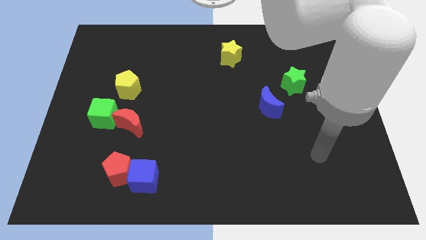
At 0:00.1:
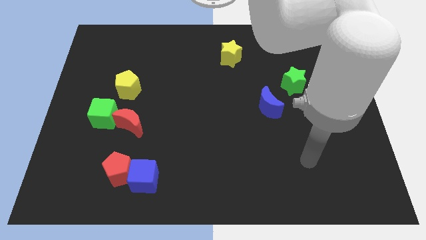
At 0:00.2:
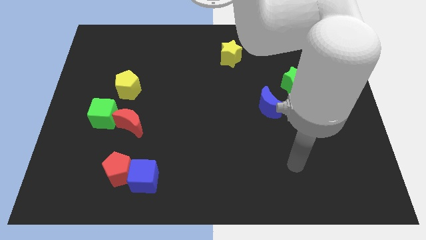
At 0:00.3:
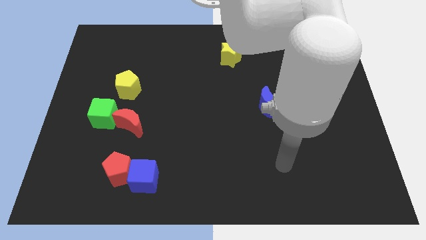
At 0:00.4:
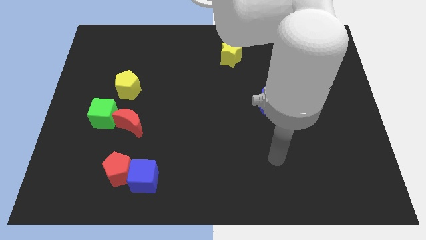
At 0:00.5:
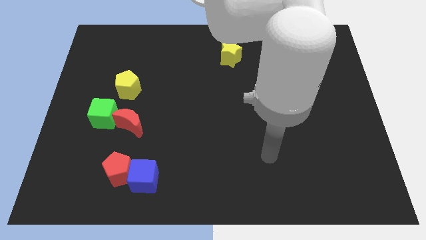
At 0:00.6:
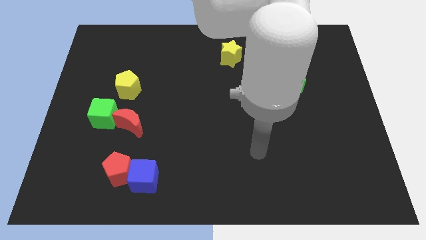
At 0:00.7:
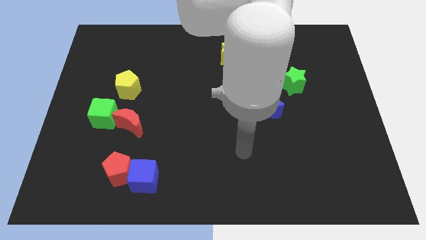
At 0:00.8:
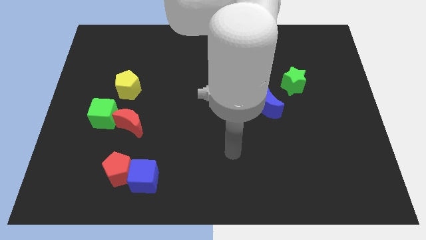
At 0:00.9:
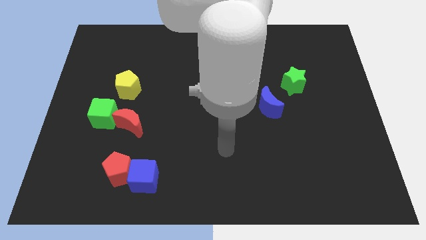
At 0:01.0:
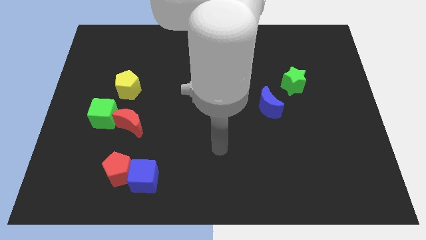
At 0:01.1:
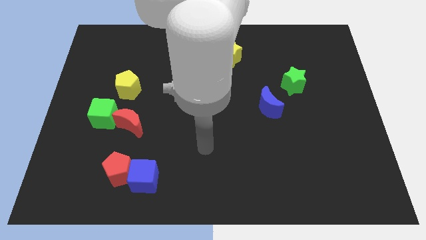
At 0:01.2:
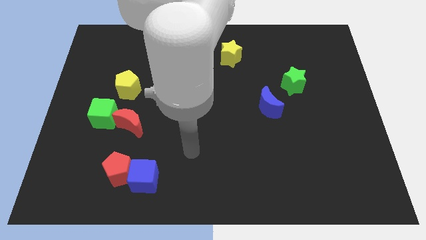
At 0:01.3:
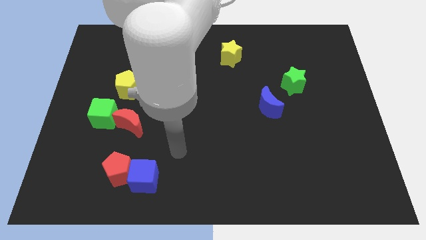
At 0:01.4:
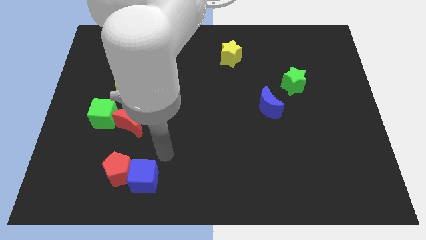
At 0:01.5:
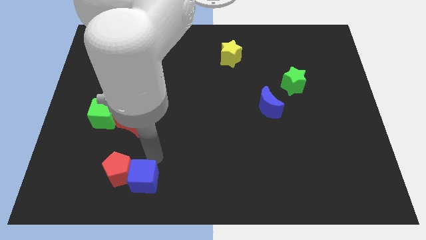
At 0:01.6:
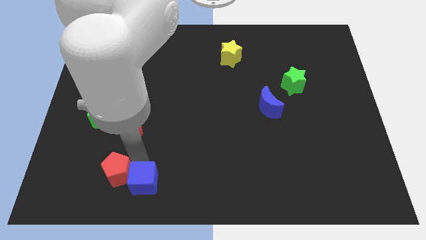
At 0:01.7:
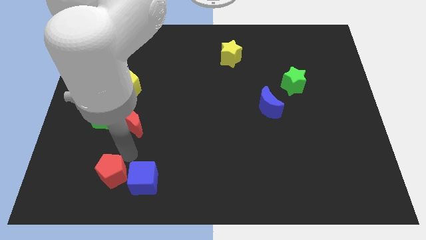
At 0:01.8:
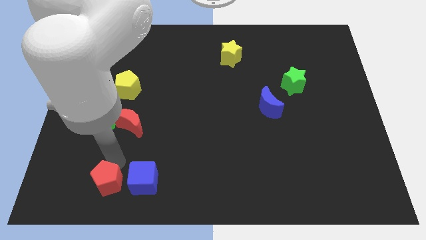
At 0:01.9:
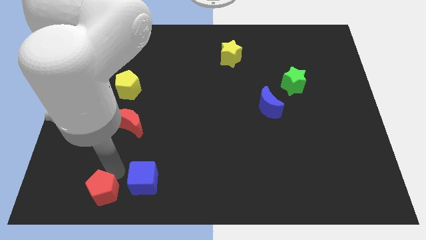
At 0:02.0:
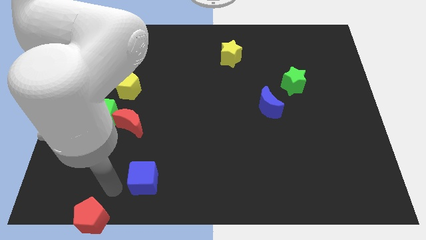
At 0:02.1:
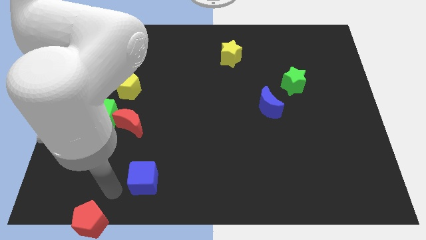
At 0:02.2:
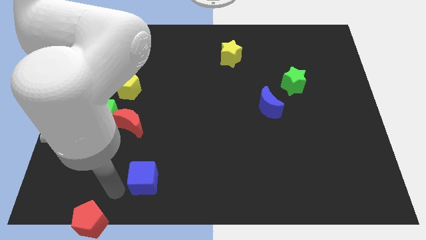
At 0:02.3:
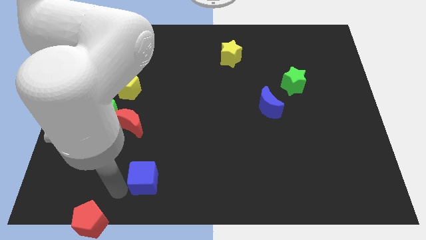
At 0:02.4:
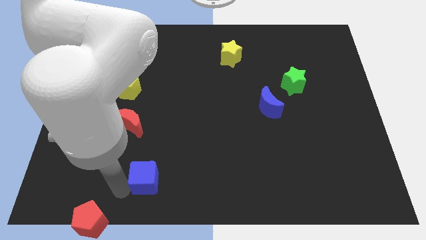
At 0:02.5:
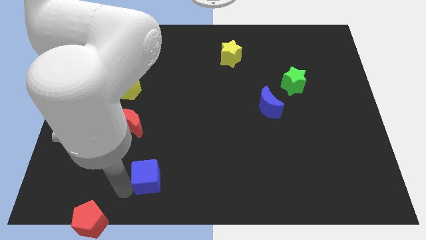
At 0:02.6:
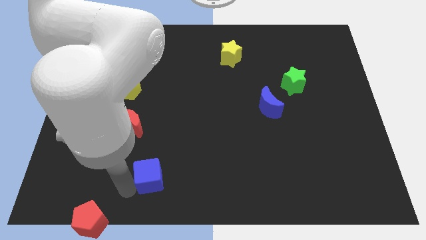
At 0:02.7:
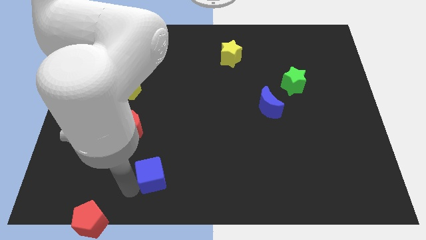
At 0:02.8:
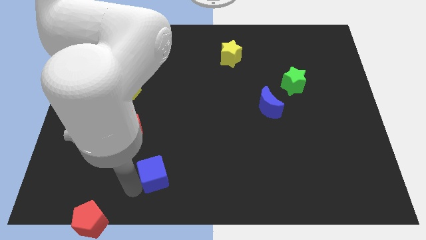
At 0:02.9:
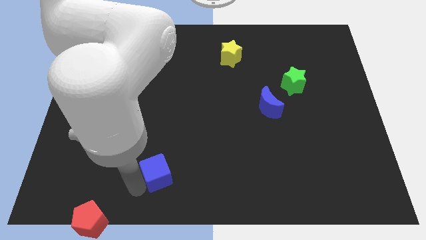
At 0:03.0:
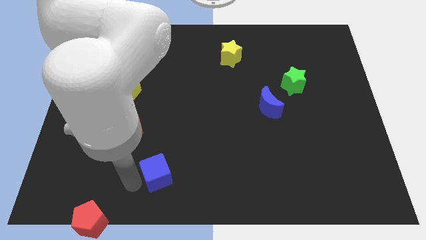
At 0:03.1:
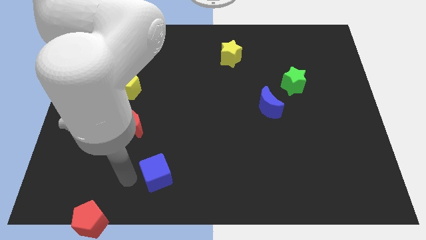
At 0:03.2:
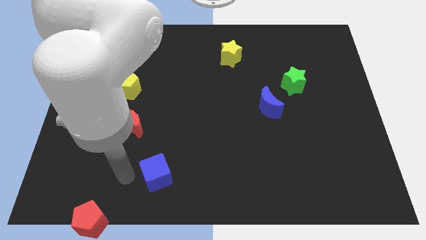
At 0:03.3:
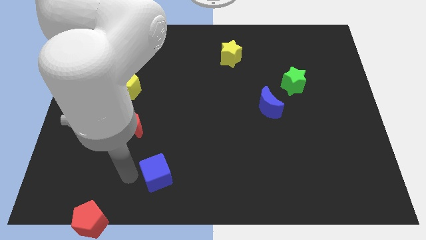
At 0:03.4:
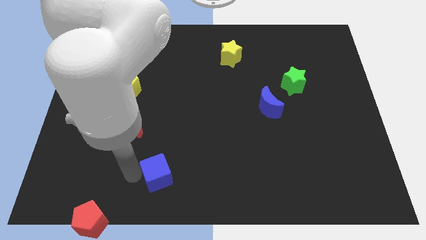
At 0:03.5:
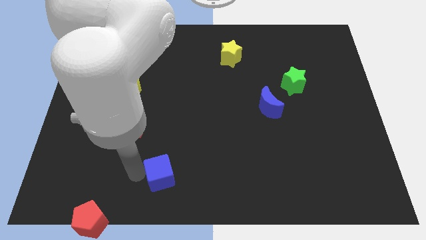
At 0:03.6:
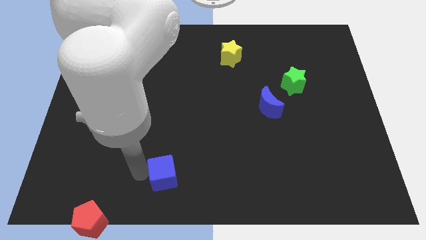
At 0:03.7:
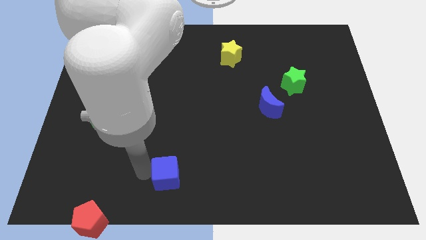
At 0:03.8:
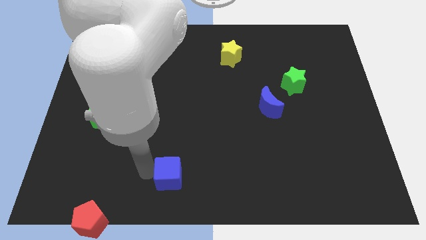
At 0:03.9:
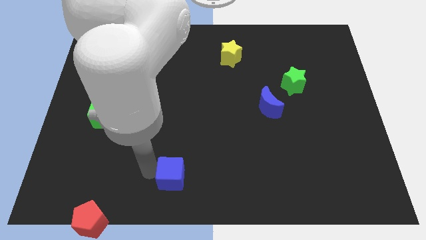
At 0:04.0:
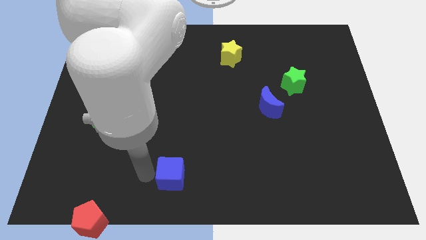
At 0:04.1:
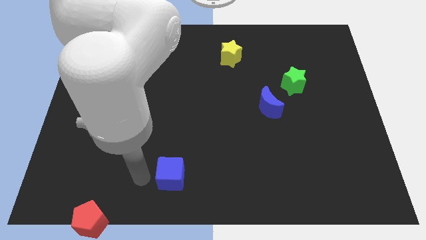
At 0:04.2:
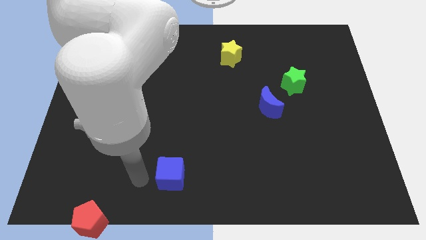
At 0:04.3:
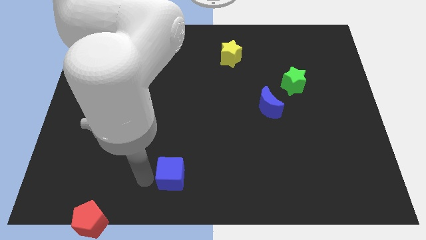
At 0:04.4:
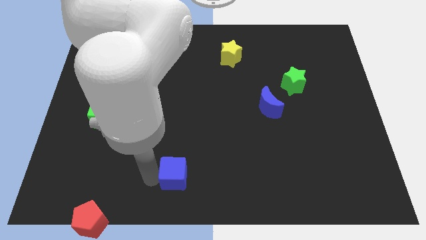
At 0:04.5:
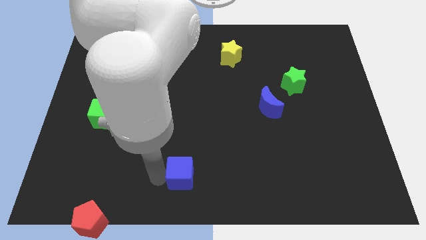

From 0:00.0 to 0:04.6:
slide the blue cube somewhat to the right

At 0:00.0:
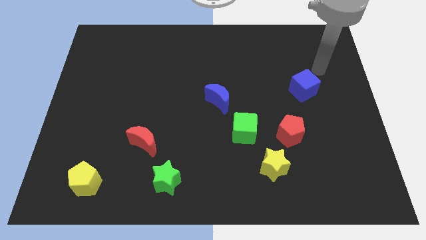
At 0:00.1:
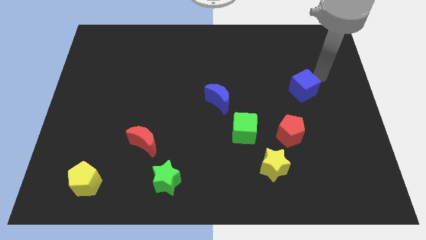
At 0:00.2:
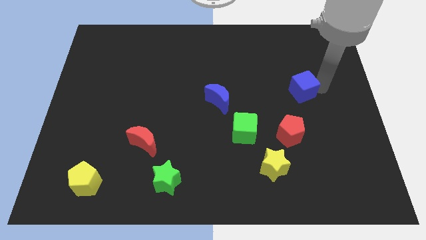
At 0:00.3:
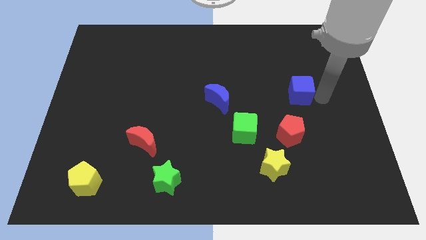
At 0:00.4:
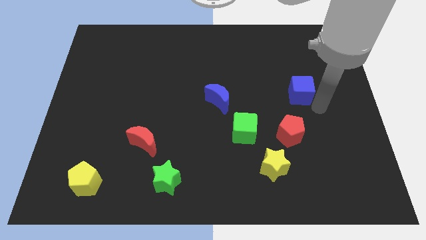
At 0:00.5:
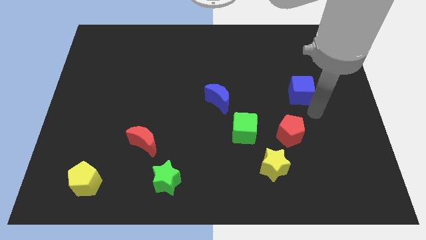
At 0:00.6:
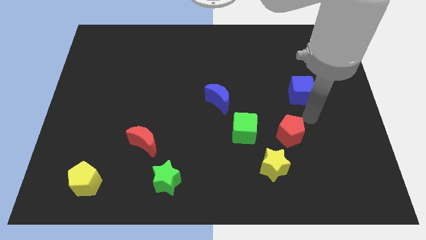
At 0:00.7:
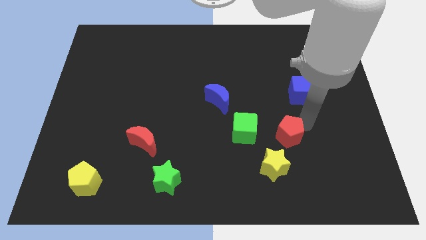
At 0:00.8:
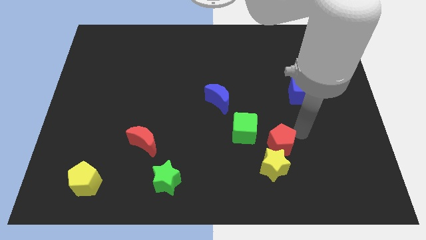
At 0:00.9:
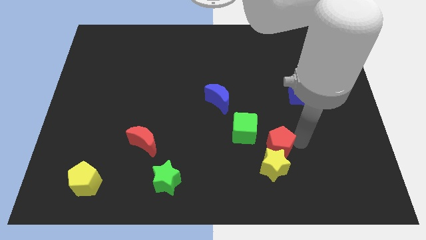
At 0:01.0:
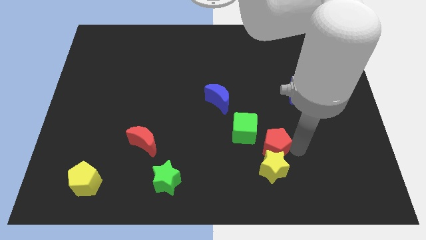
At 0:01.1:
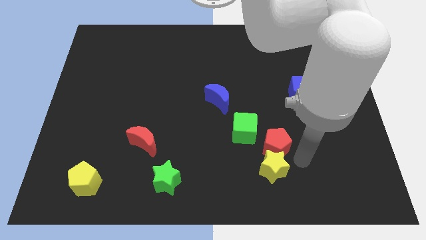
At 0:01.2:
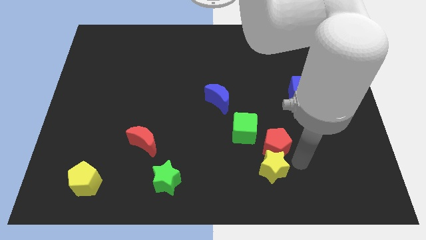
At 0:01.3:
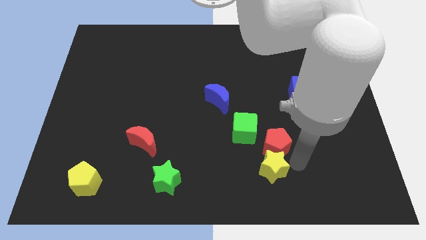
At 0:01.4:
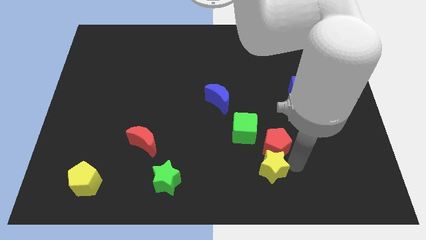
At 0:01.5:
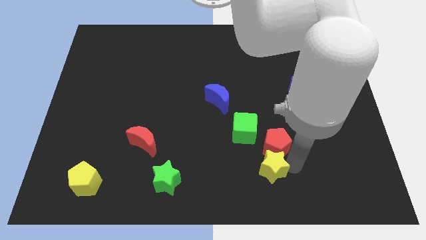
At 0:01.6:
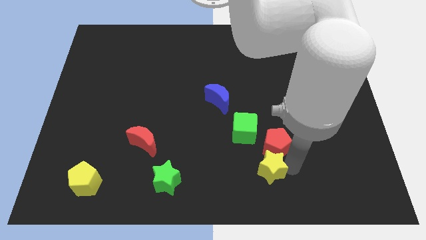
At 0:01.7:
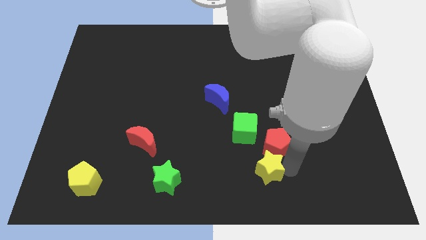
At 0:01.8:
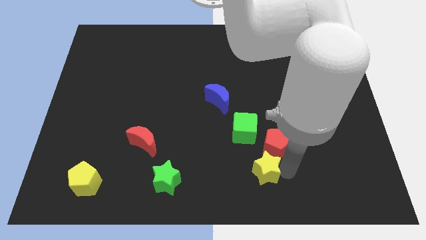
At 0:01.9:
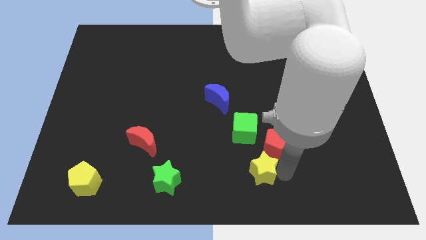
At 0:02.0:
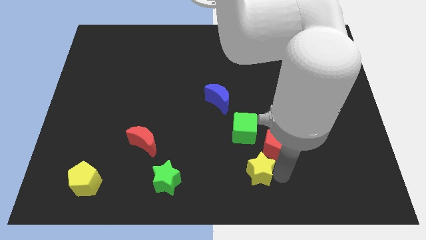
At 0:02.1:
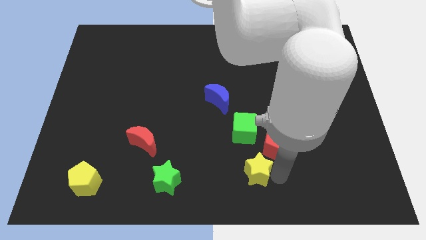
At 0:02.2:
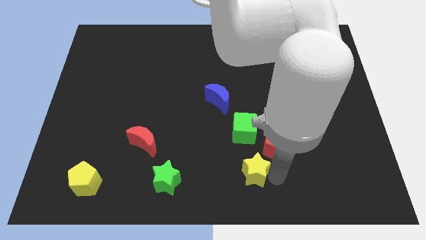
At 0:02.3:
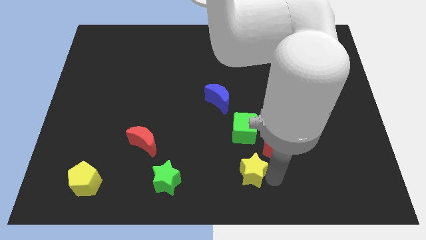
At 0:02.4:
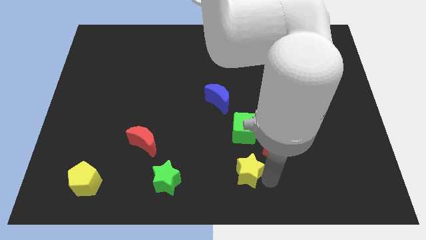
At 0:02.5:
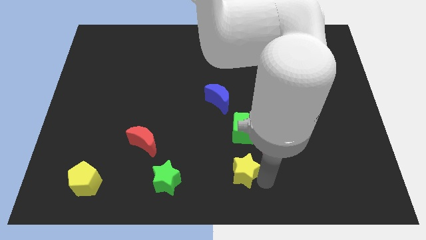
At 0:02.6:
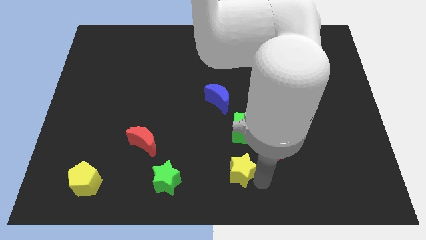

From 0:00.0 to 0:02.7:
push the yellow star left a little
